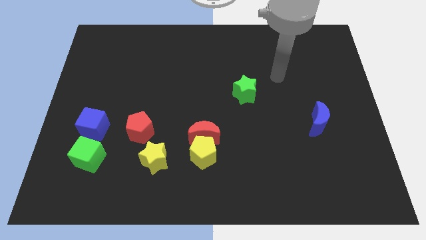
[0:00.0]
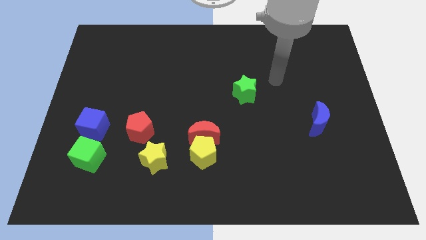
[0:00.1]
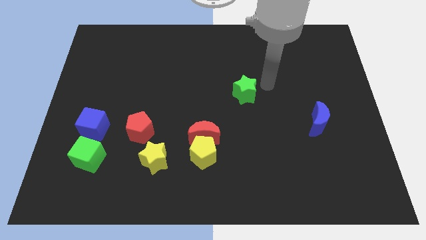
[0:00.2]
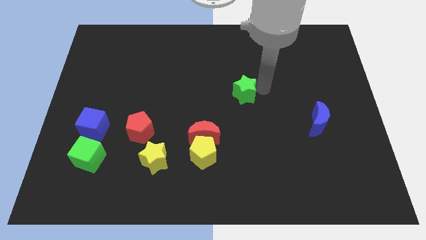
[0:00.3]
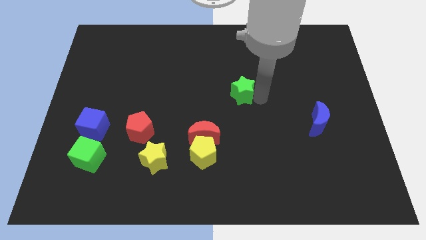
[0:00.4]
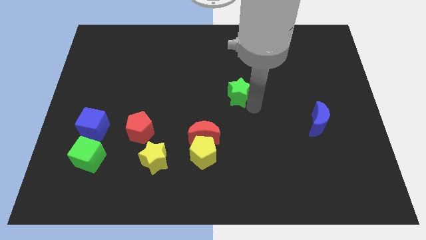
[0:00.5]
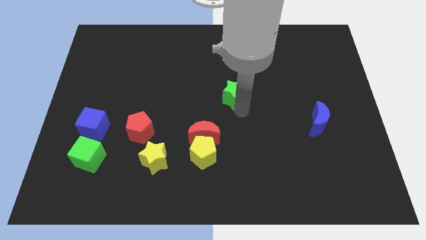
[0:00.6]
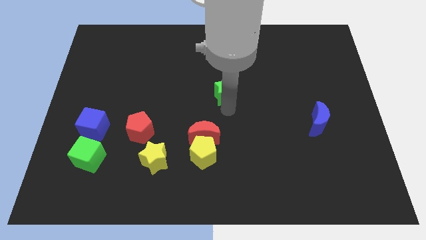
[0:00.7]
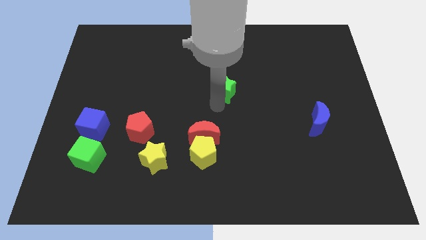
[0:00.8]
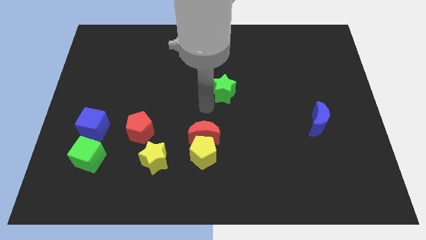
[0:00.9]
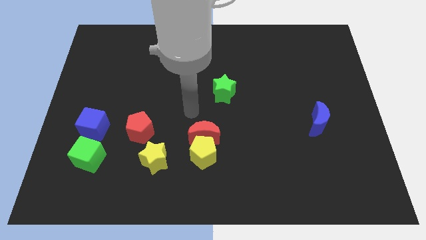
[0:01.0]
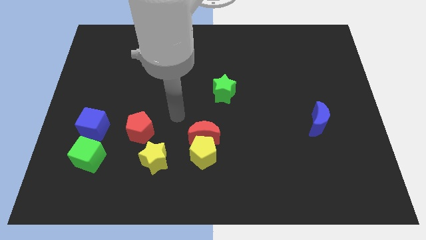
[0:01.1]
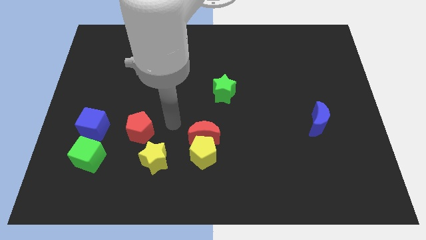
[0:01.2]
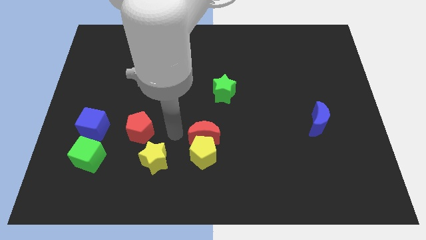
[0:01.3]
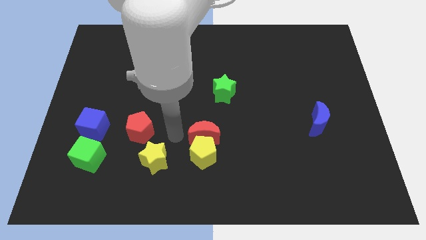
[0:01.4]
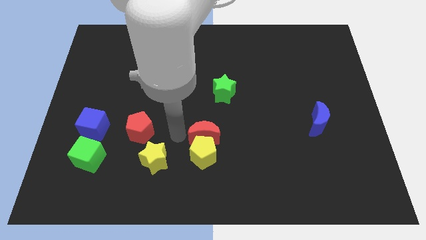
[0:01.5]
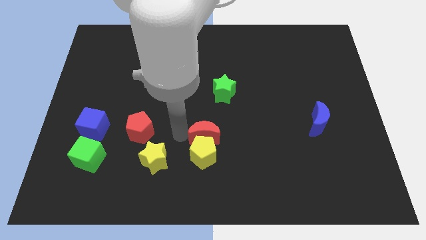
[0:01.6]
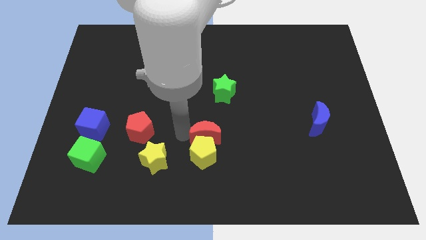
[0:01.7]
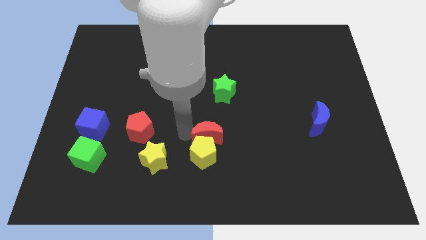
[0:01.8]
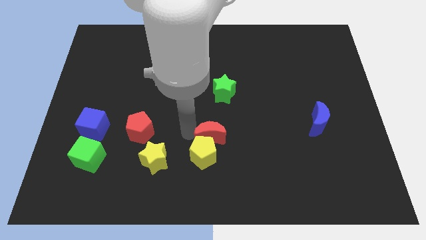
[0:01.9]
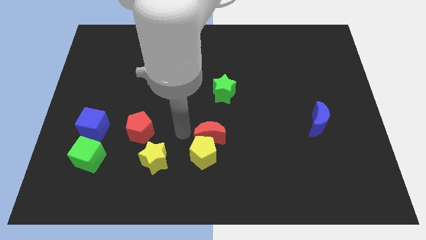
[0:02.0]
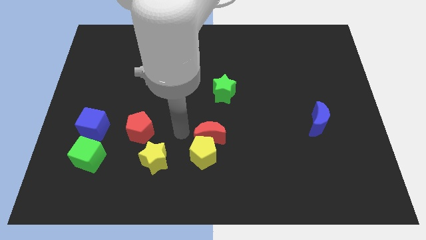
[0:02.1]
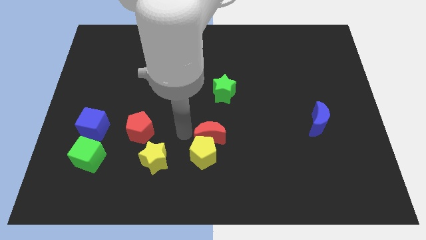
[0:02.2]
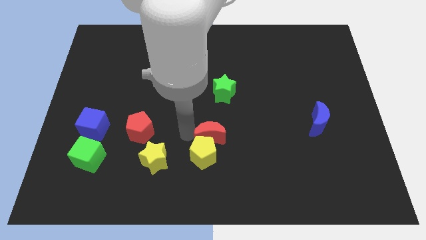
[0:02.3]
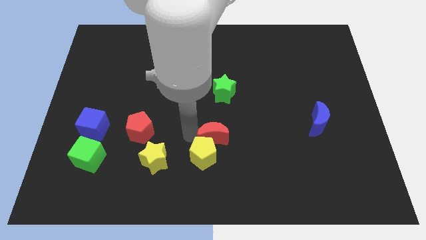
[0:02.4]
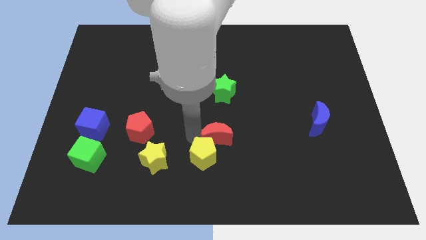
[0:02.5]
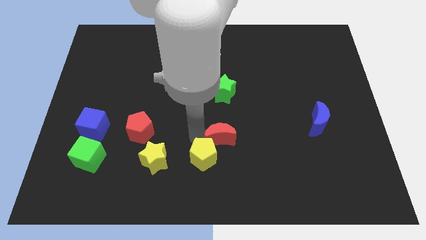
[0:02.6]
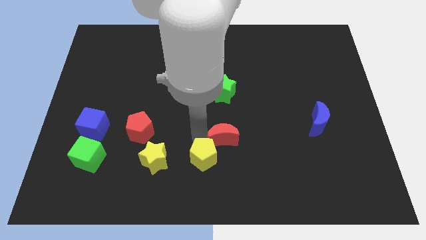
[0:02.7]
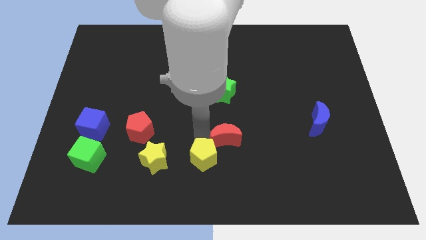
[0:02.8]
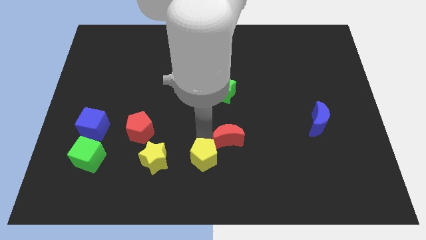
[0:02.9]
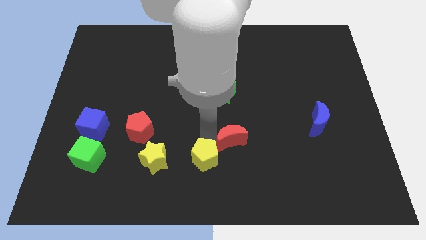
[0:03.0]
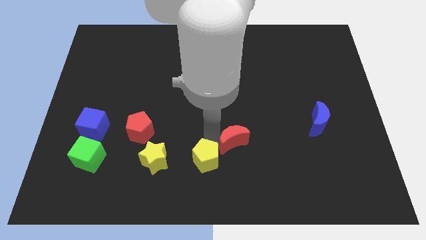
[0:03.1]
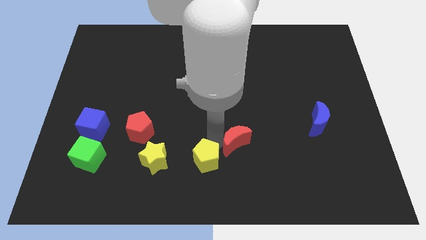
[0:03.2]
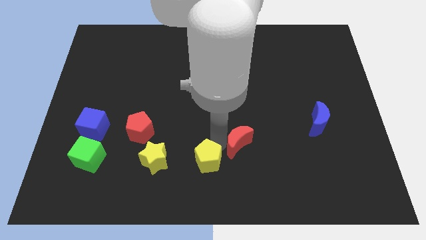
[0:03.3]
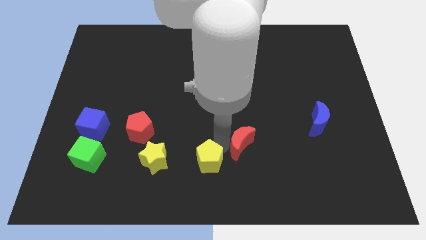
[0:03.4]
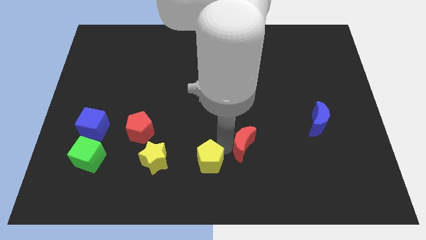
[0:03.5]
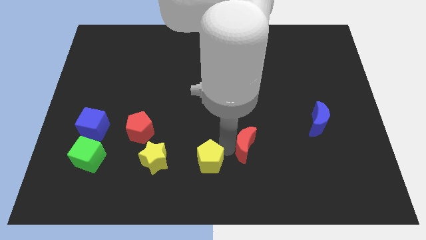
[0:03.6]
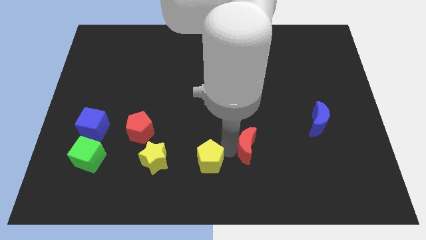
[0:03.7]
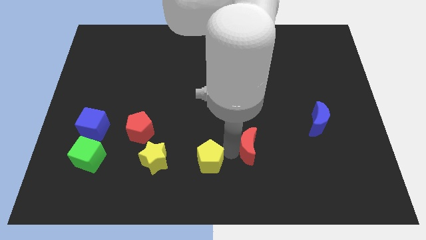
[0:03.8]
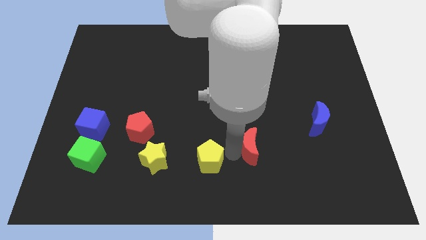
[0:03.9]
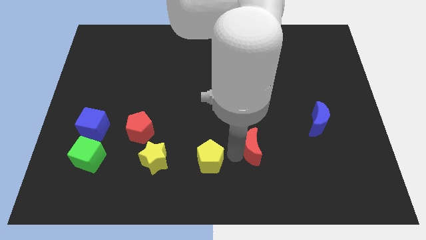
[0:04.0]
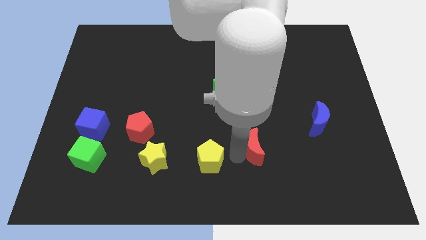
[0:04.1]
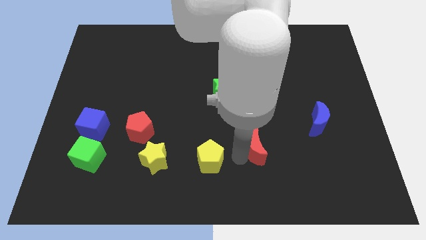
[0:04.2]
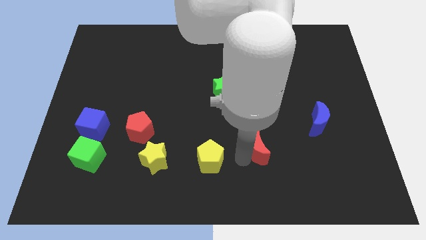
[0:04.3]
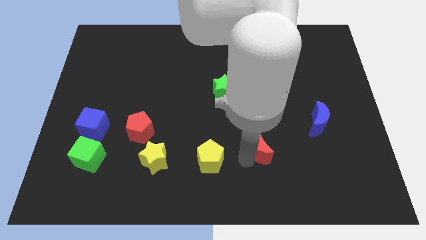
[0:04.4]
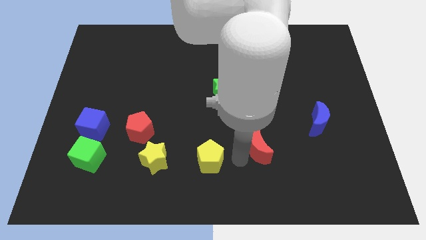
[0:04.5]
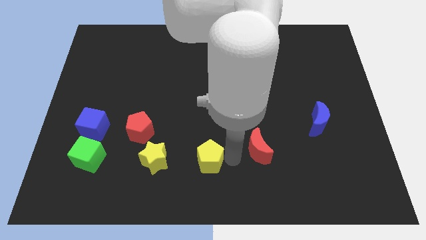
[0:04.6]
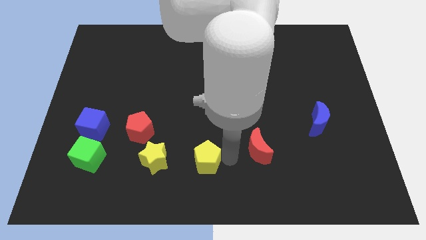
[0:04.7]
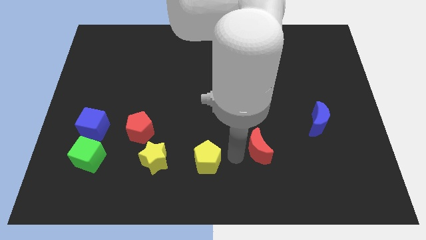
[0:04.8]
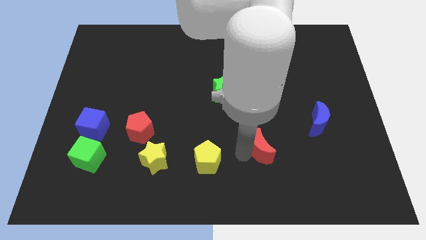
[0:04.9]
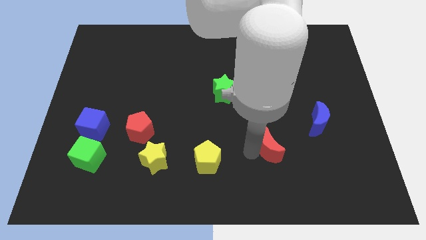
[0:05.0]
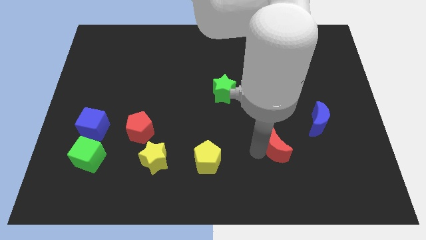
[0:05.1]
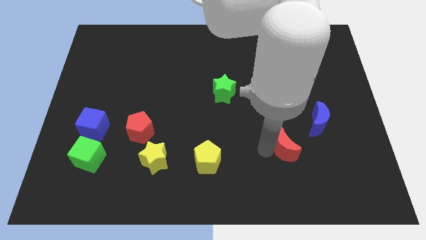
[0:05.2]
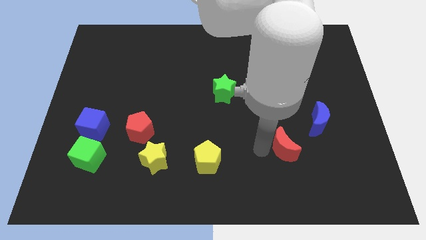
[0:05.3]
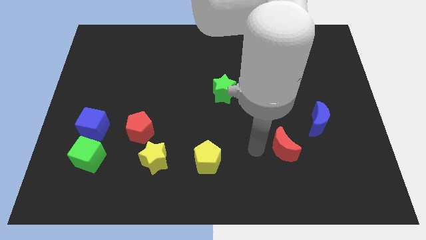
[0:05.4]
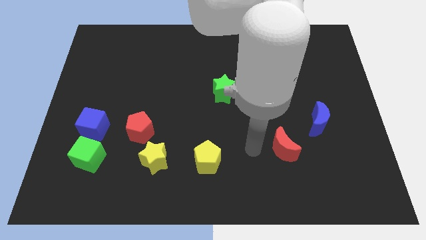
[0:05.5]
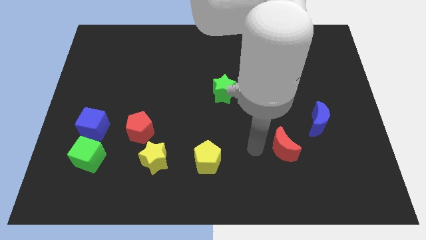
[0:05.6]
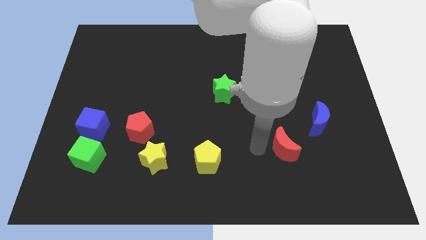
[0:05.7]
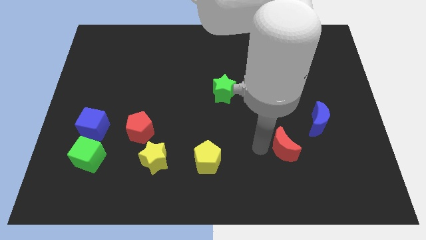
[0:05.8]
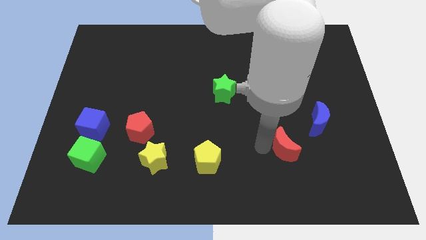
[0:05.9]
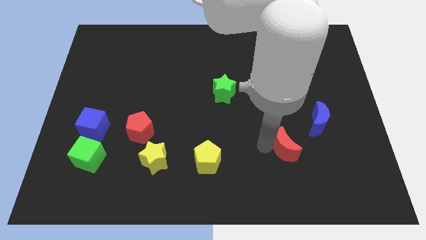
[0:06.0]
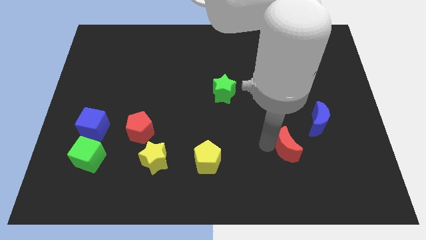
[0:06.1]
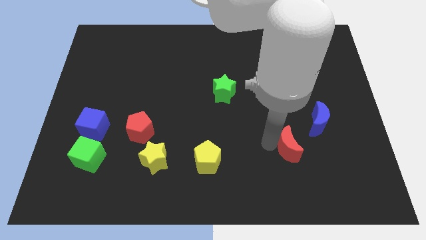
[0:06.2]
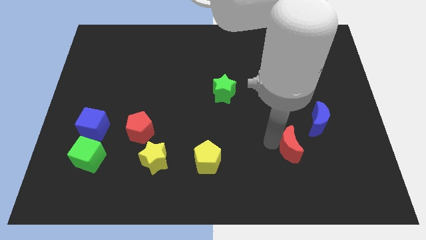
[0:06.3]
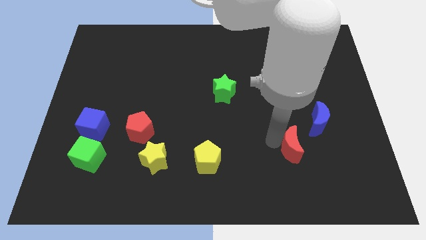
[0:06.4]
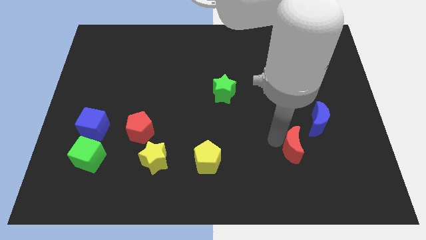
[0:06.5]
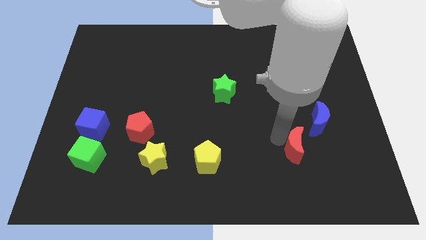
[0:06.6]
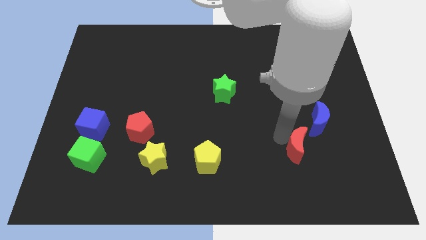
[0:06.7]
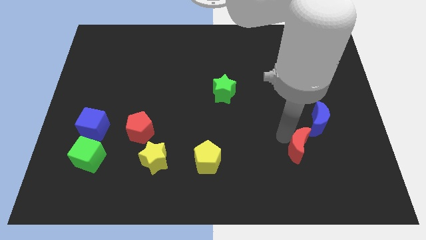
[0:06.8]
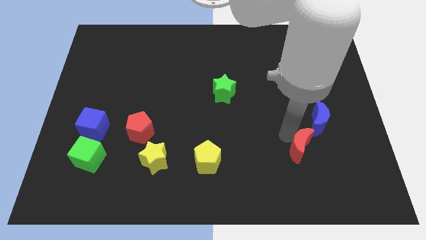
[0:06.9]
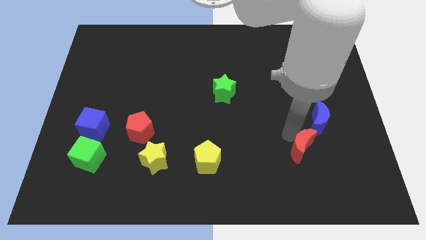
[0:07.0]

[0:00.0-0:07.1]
move the red moon below the blue moon
